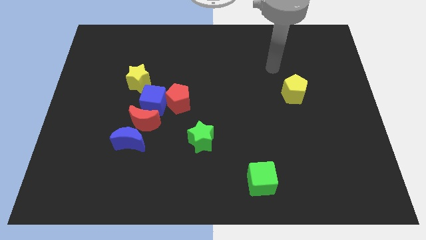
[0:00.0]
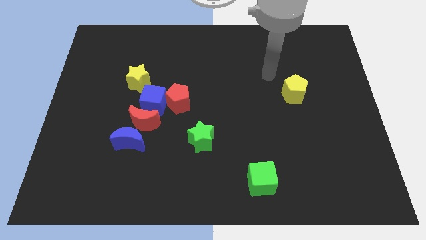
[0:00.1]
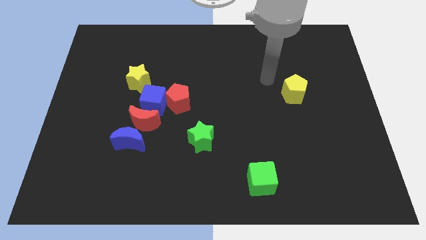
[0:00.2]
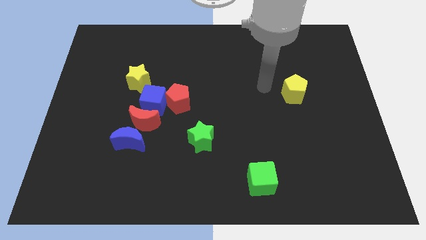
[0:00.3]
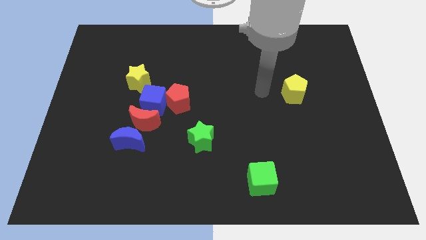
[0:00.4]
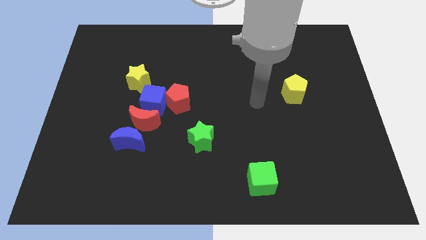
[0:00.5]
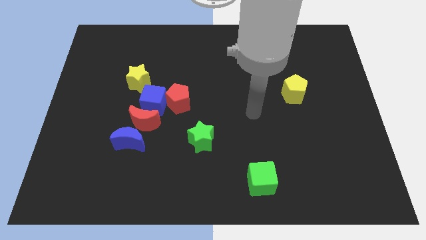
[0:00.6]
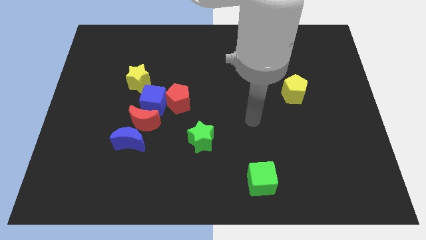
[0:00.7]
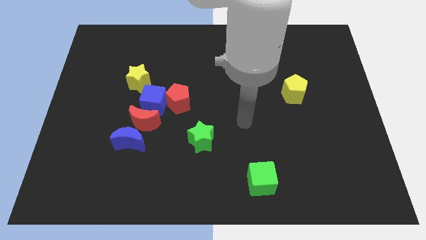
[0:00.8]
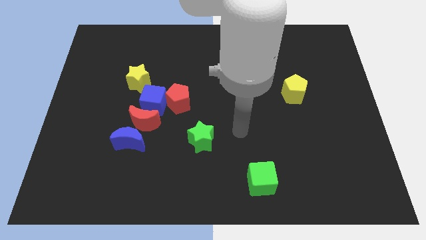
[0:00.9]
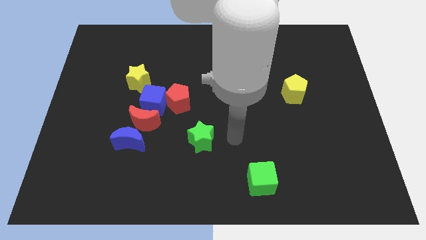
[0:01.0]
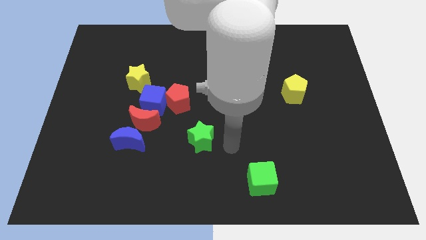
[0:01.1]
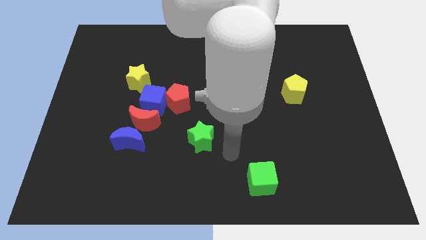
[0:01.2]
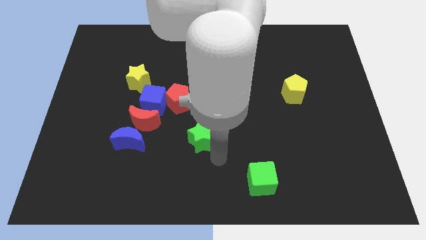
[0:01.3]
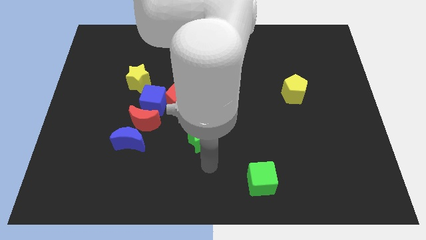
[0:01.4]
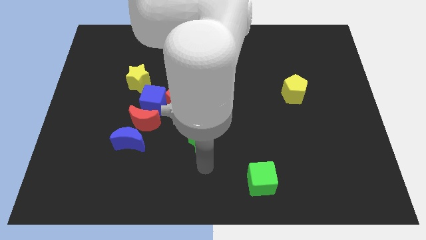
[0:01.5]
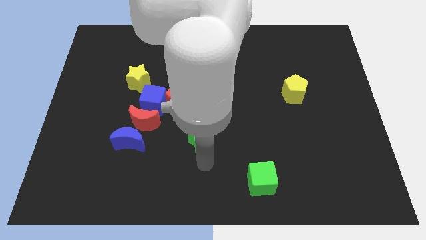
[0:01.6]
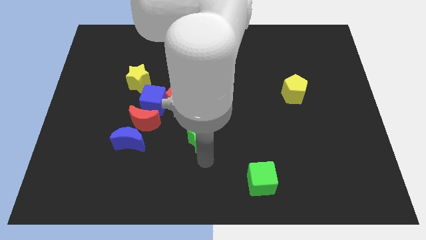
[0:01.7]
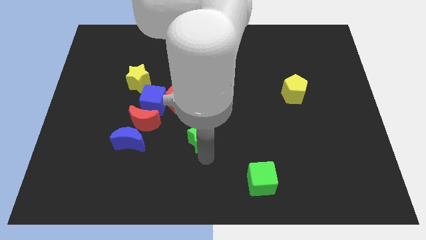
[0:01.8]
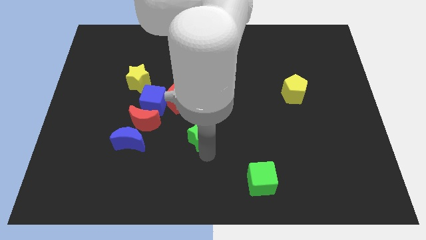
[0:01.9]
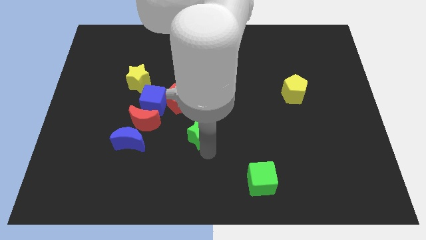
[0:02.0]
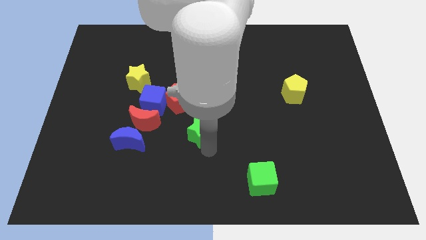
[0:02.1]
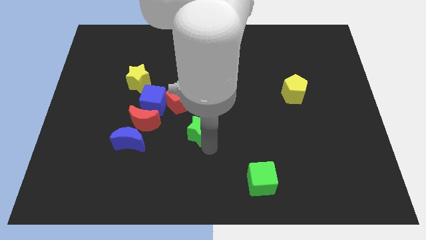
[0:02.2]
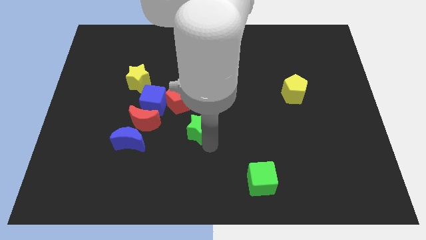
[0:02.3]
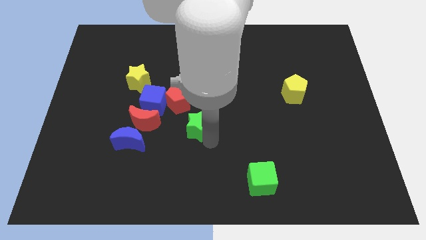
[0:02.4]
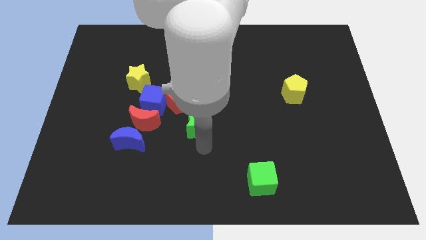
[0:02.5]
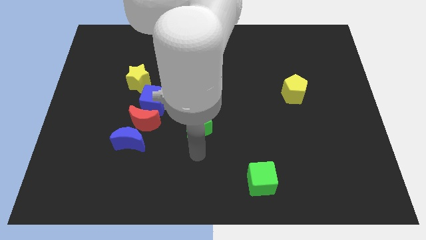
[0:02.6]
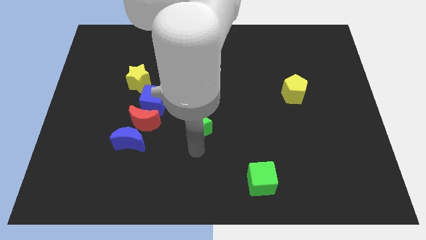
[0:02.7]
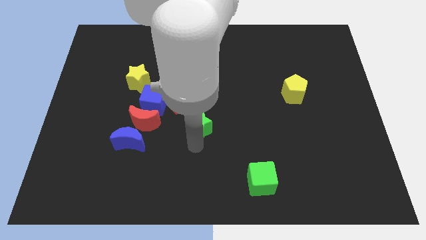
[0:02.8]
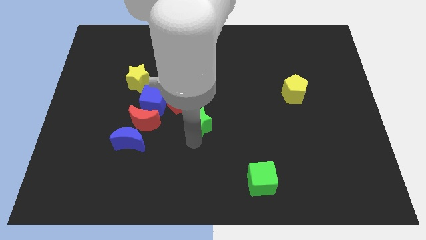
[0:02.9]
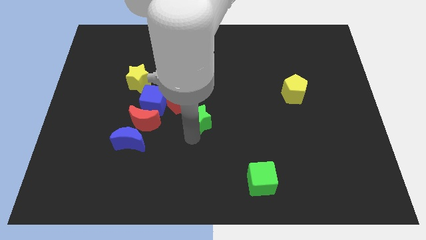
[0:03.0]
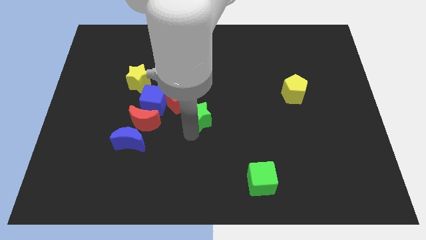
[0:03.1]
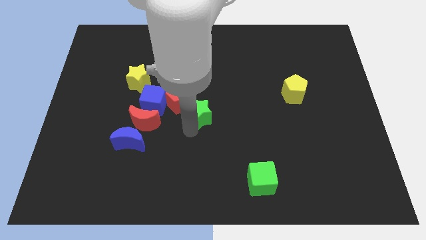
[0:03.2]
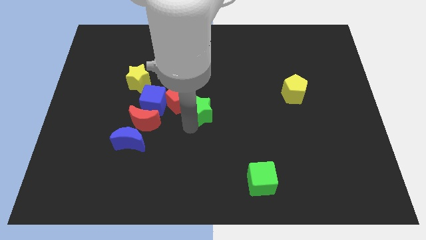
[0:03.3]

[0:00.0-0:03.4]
move the green star a little upwards

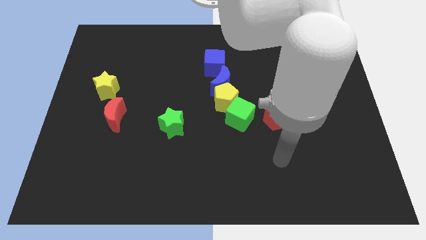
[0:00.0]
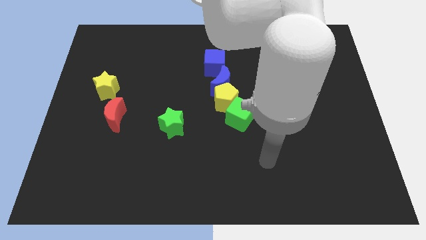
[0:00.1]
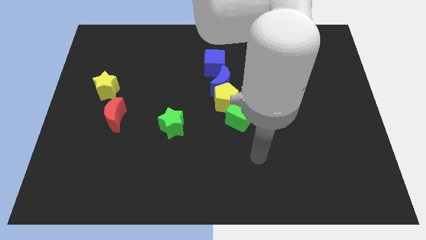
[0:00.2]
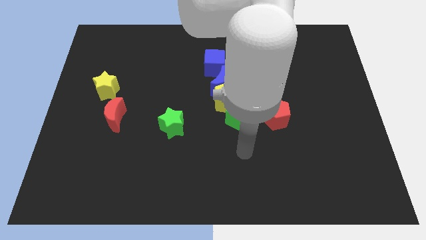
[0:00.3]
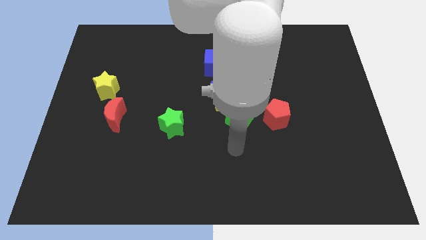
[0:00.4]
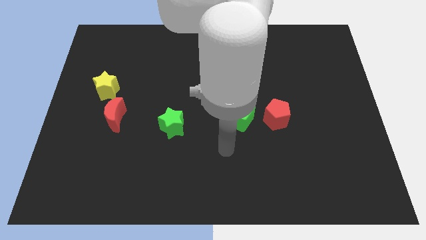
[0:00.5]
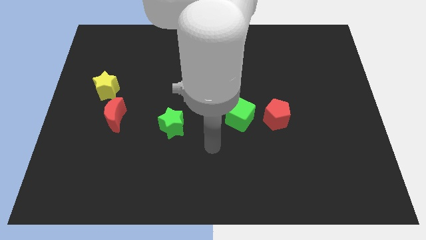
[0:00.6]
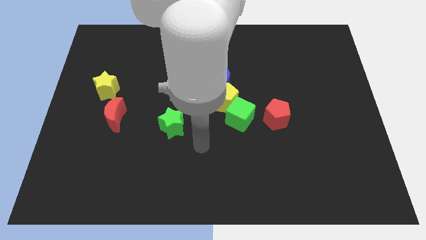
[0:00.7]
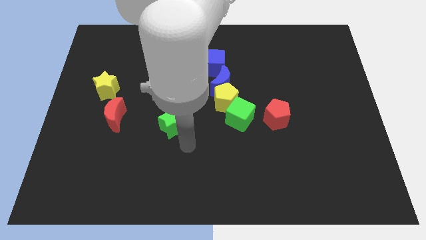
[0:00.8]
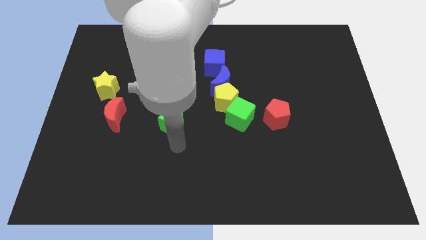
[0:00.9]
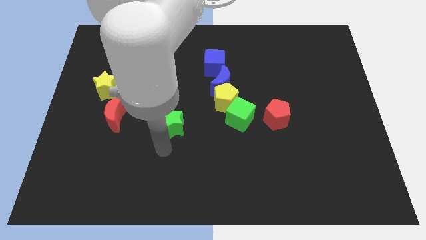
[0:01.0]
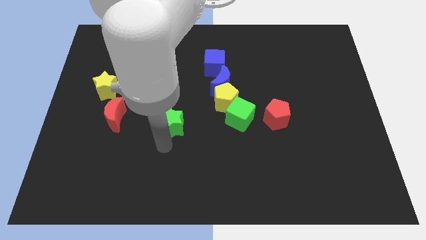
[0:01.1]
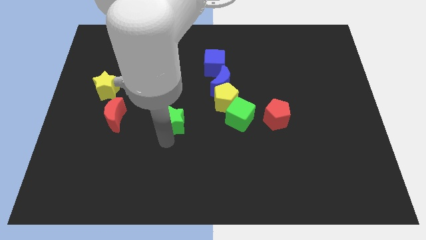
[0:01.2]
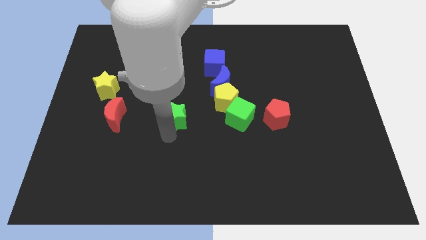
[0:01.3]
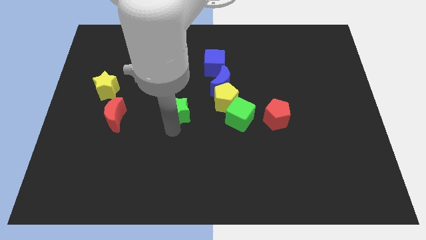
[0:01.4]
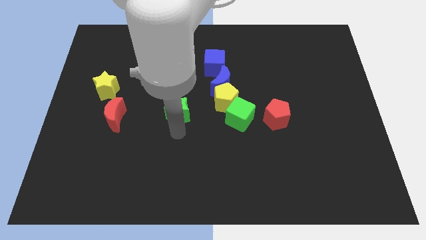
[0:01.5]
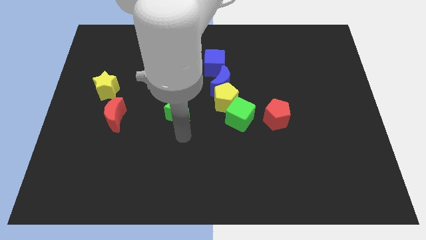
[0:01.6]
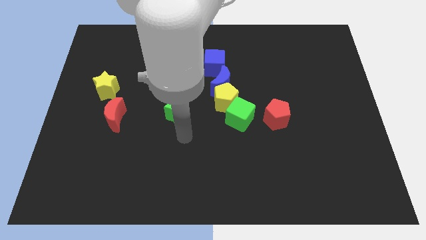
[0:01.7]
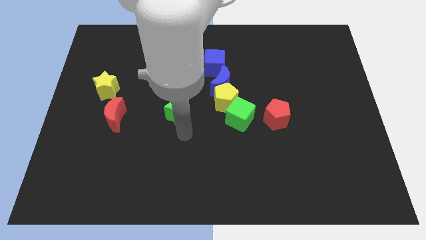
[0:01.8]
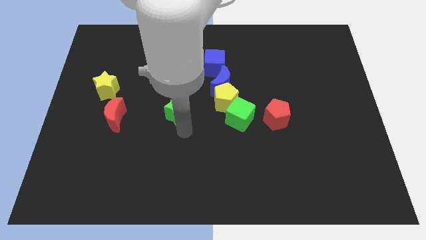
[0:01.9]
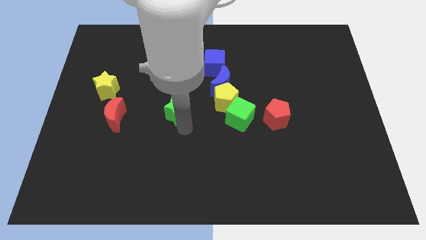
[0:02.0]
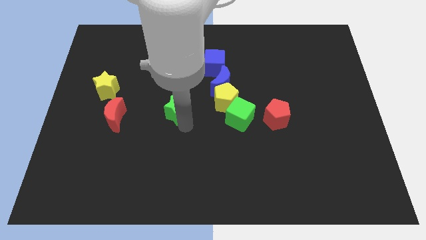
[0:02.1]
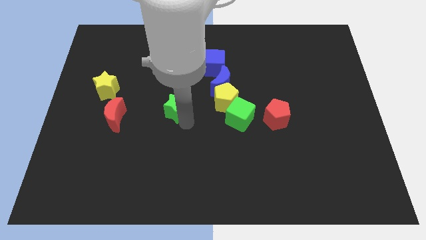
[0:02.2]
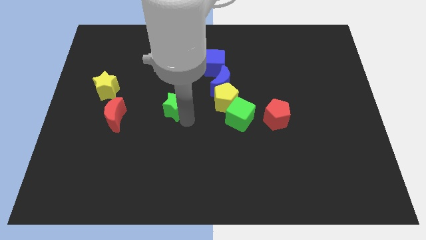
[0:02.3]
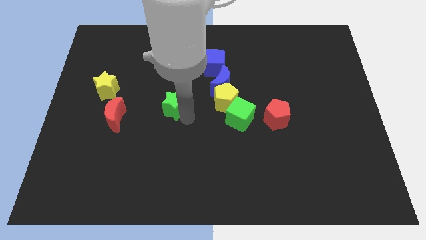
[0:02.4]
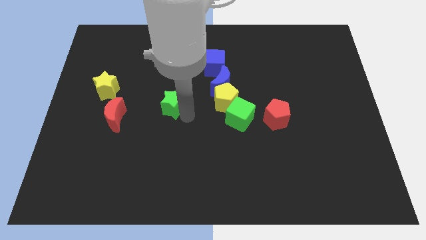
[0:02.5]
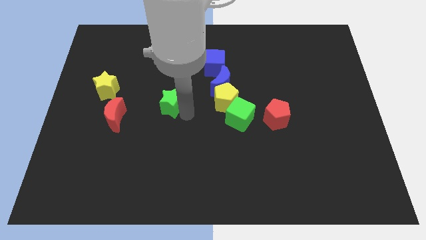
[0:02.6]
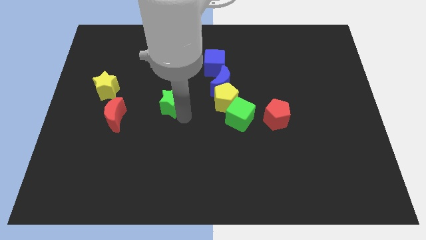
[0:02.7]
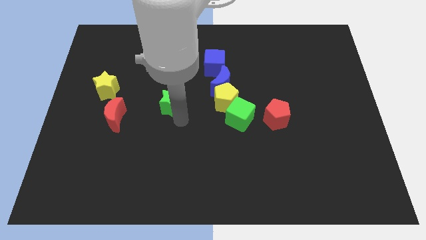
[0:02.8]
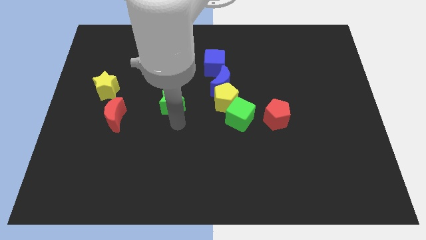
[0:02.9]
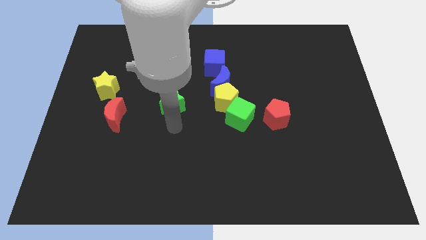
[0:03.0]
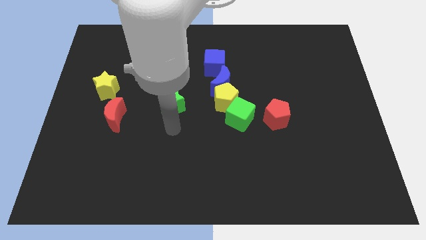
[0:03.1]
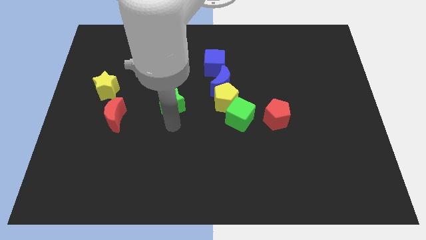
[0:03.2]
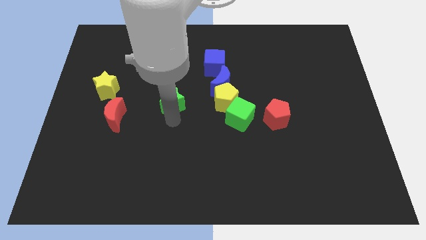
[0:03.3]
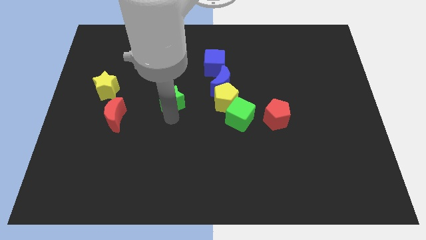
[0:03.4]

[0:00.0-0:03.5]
slightly move the green star up

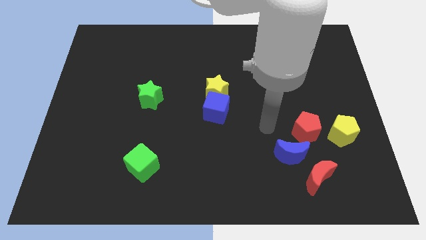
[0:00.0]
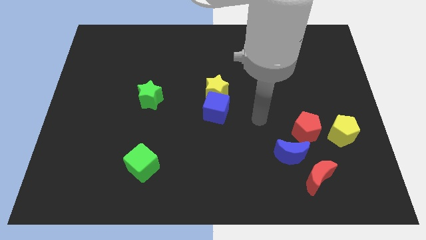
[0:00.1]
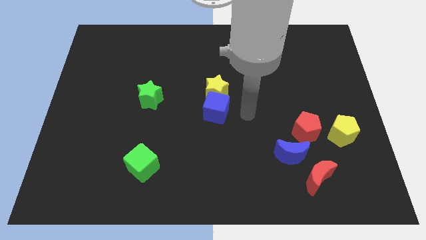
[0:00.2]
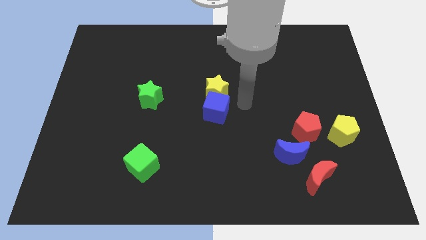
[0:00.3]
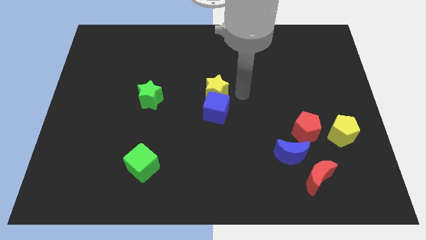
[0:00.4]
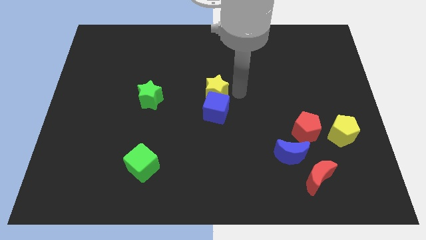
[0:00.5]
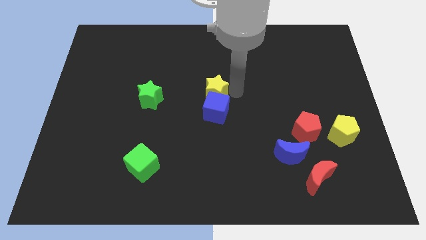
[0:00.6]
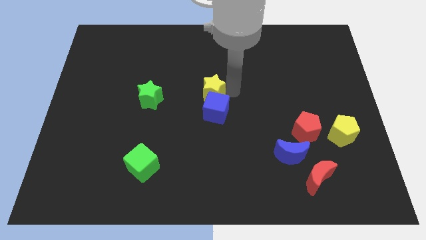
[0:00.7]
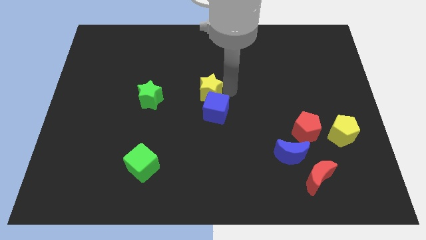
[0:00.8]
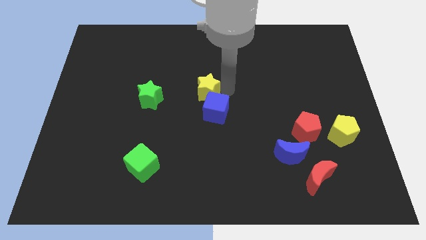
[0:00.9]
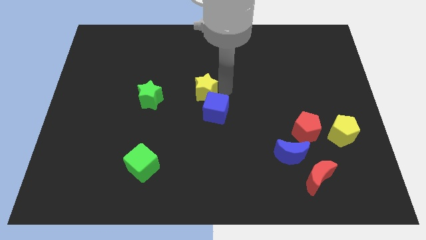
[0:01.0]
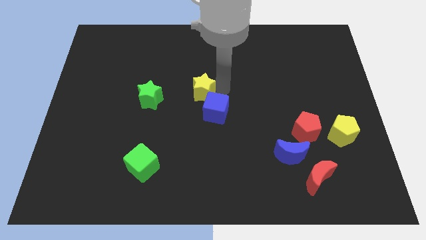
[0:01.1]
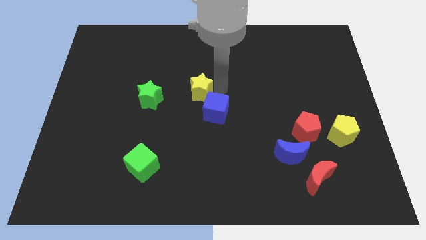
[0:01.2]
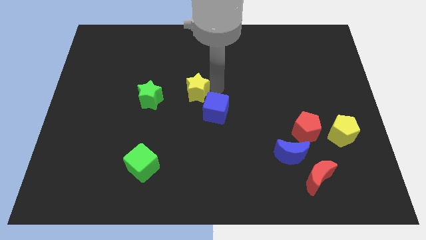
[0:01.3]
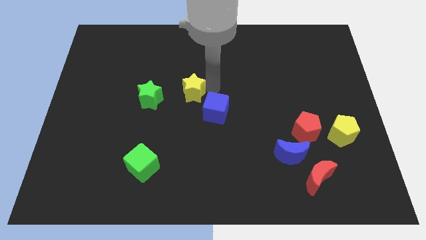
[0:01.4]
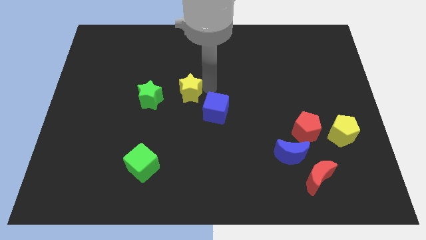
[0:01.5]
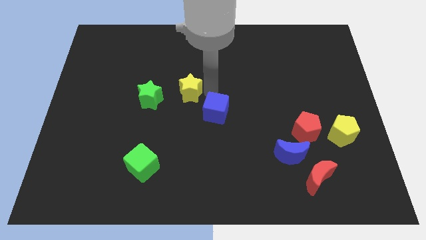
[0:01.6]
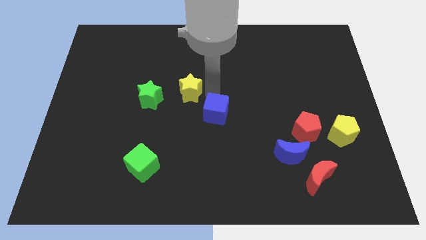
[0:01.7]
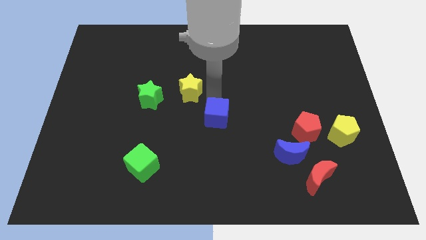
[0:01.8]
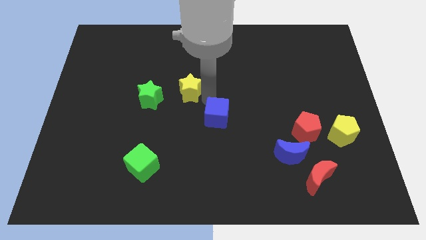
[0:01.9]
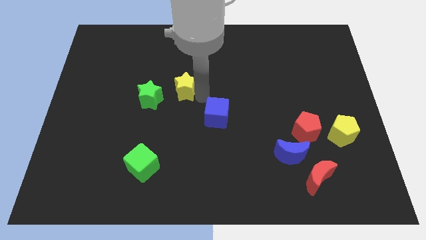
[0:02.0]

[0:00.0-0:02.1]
move the yellow star left a little bit
